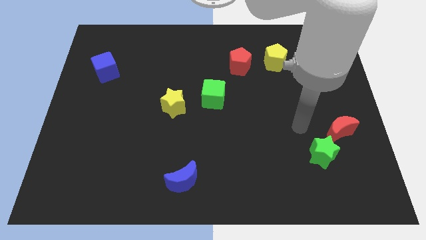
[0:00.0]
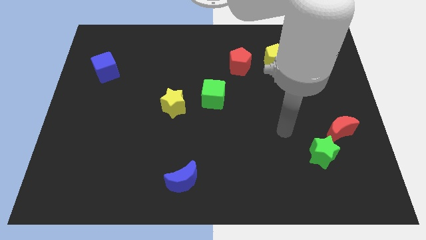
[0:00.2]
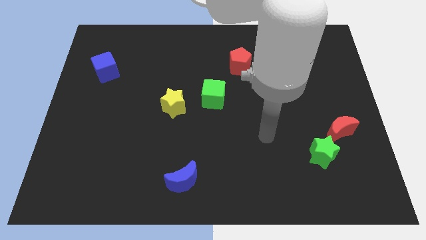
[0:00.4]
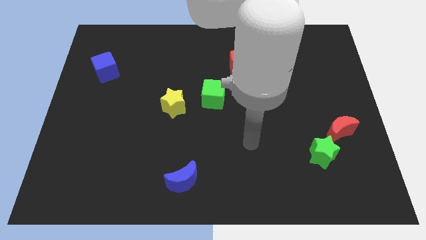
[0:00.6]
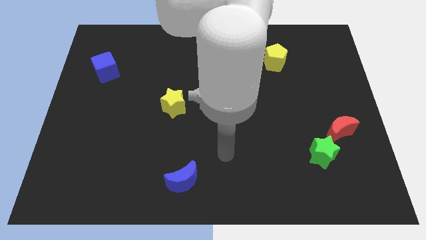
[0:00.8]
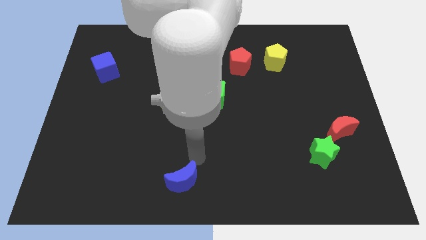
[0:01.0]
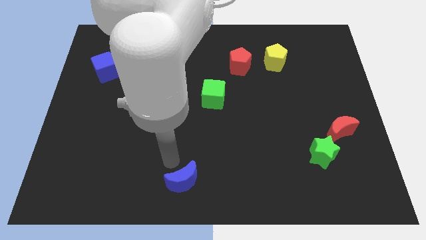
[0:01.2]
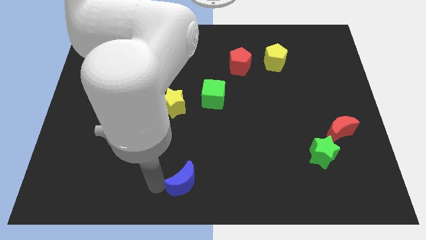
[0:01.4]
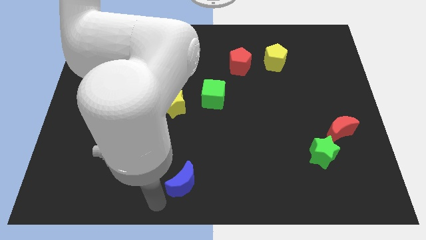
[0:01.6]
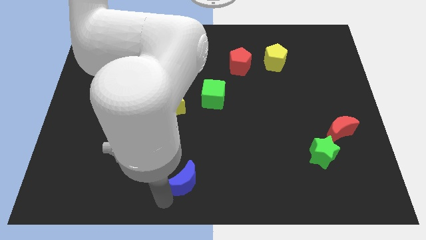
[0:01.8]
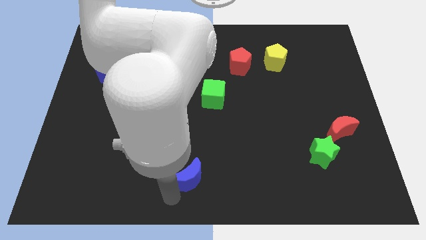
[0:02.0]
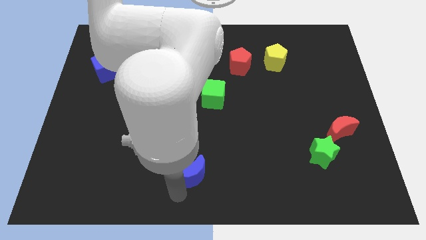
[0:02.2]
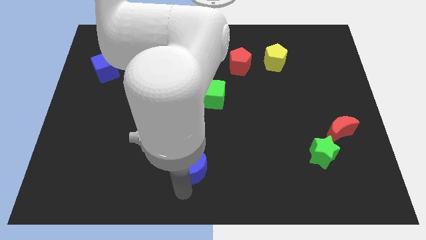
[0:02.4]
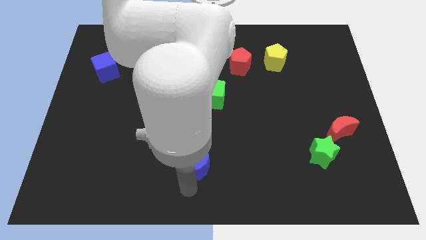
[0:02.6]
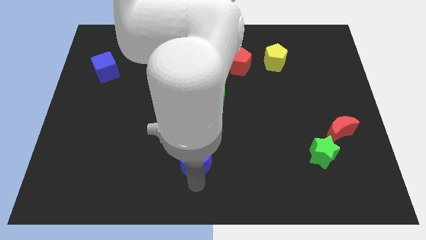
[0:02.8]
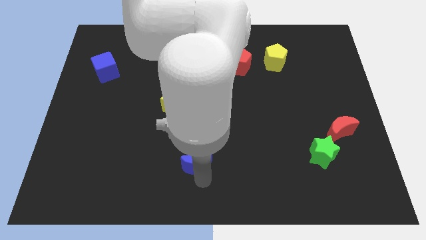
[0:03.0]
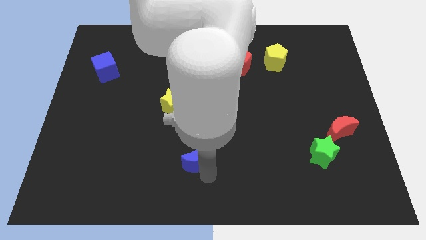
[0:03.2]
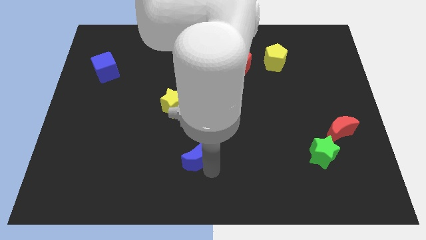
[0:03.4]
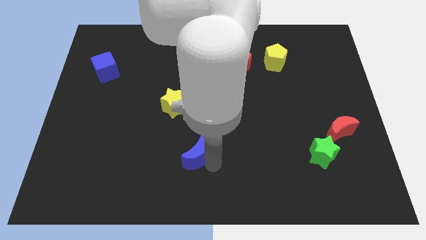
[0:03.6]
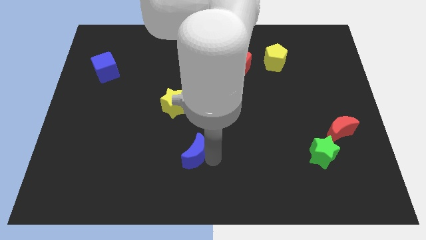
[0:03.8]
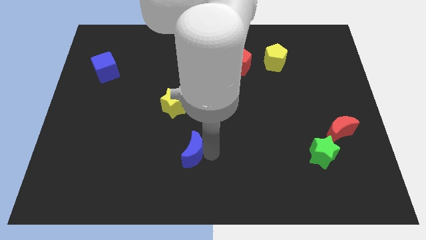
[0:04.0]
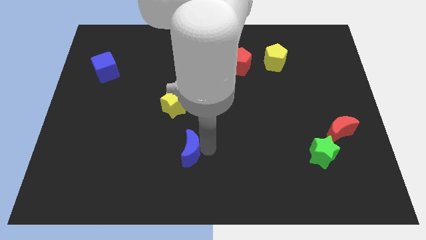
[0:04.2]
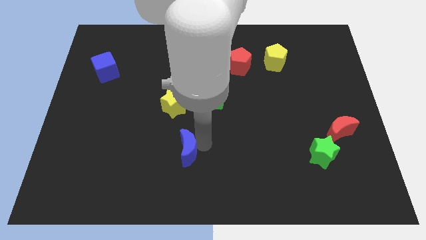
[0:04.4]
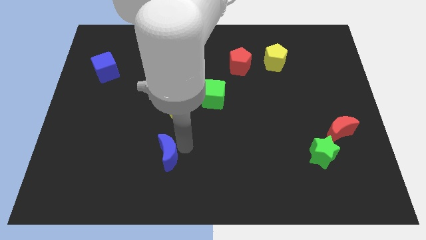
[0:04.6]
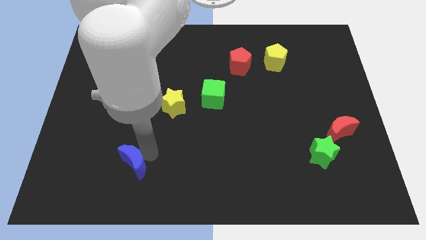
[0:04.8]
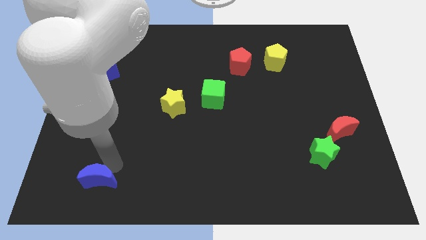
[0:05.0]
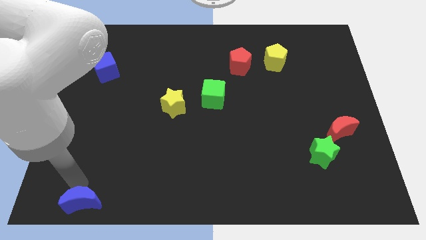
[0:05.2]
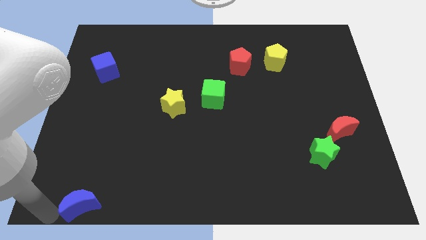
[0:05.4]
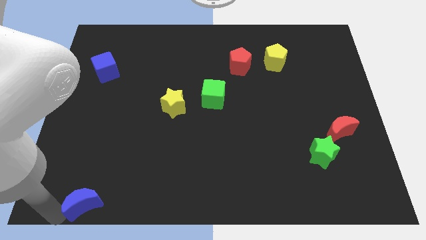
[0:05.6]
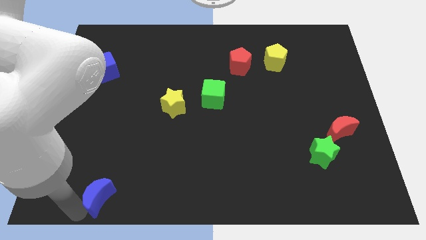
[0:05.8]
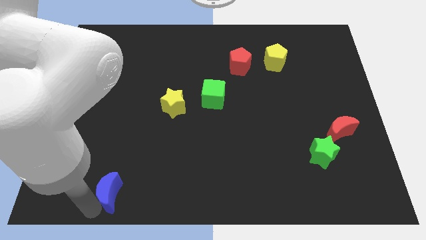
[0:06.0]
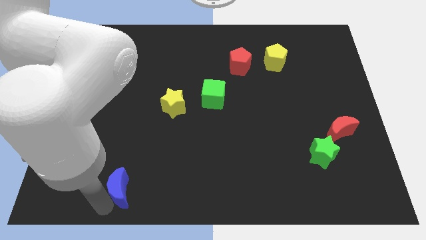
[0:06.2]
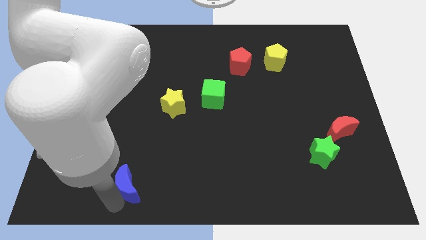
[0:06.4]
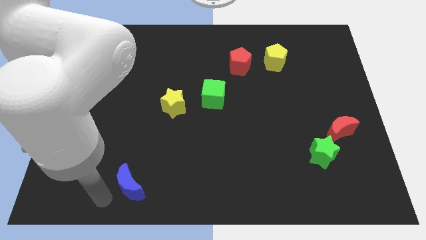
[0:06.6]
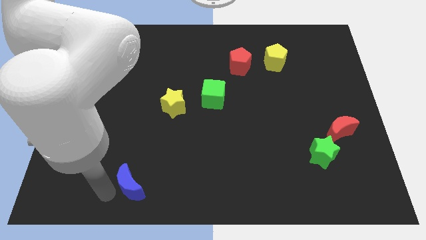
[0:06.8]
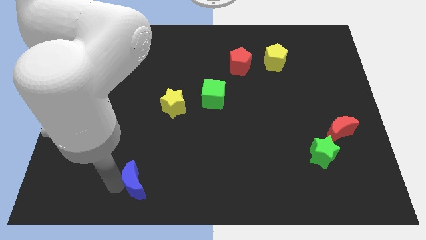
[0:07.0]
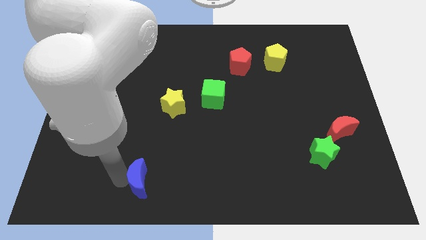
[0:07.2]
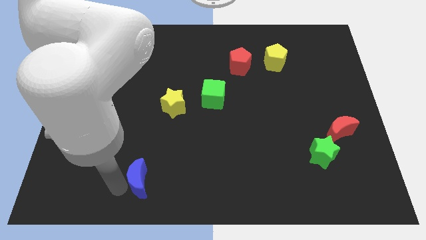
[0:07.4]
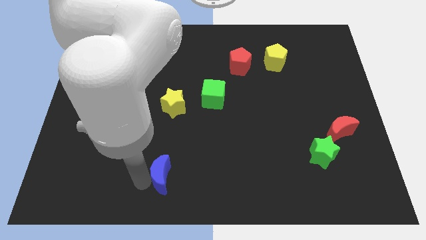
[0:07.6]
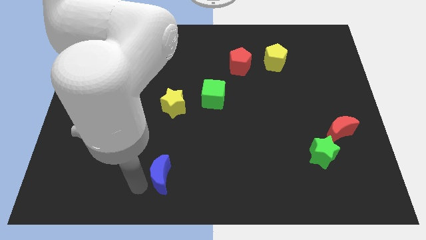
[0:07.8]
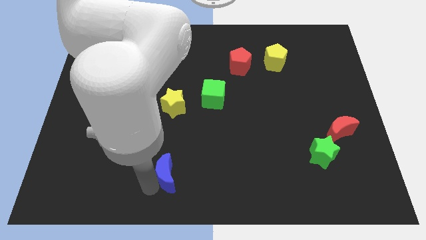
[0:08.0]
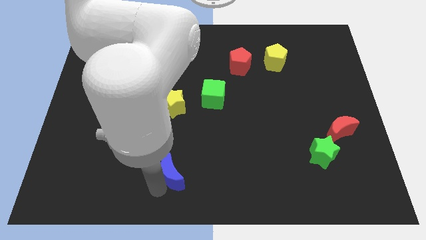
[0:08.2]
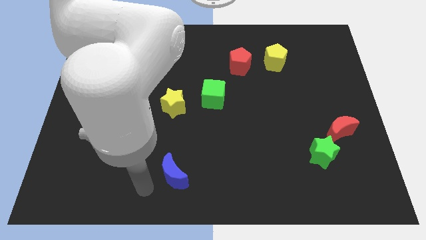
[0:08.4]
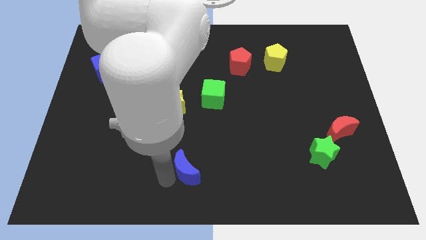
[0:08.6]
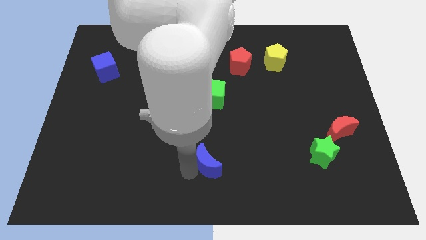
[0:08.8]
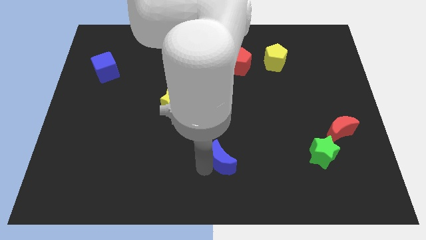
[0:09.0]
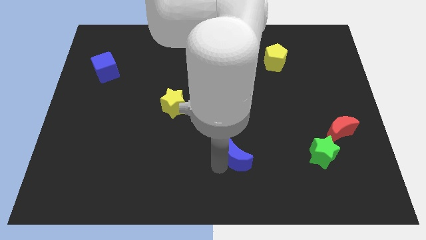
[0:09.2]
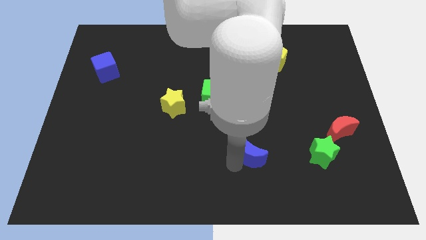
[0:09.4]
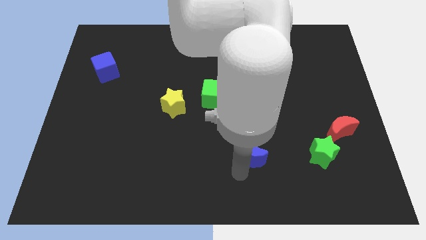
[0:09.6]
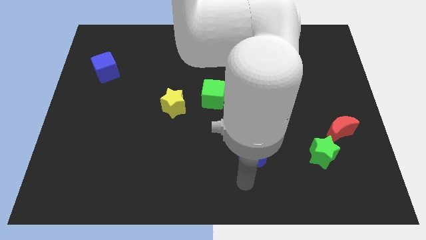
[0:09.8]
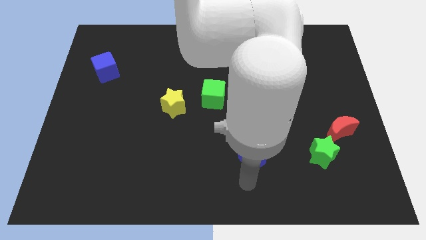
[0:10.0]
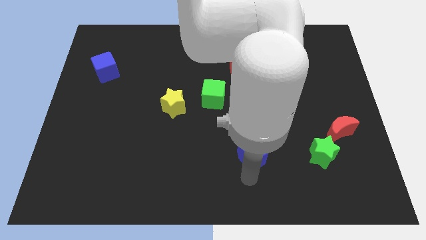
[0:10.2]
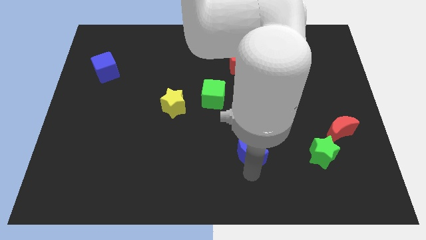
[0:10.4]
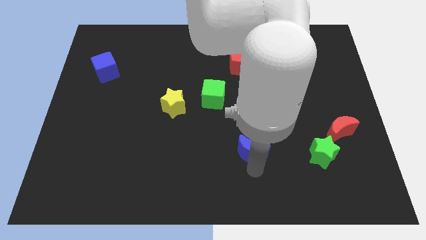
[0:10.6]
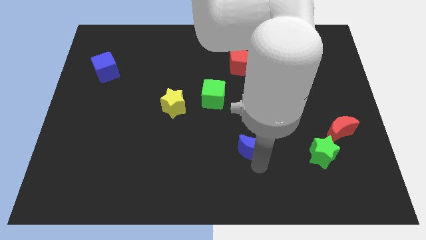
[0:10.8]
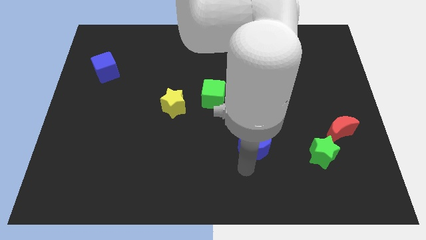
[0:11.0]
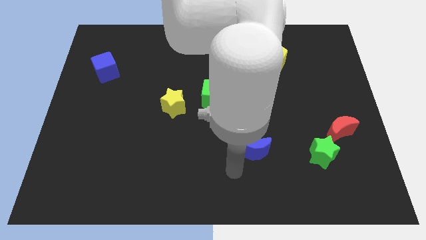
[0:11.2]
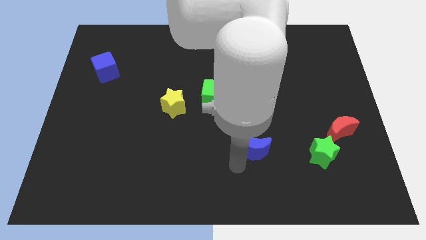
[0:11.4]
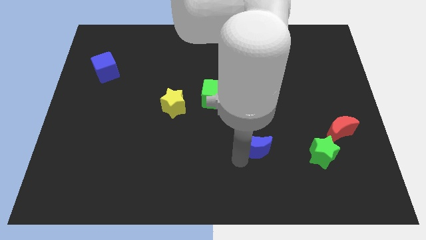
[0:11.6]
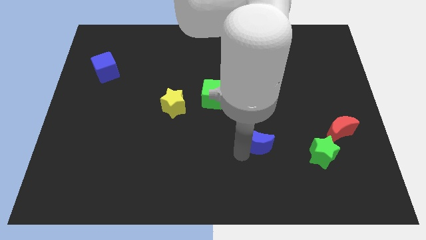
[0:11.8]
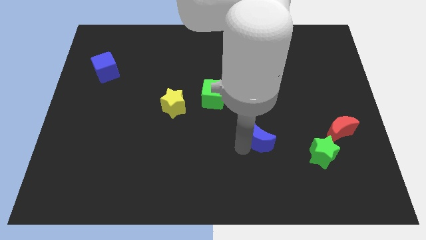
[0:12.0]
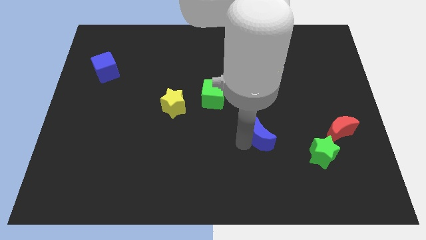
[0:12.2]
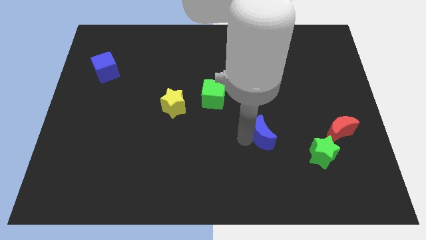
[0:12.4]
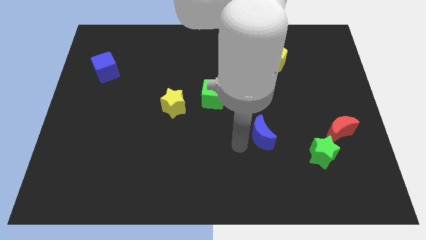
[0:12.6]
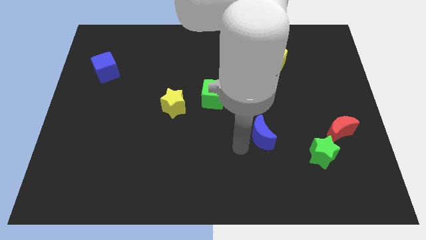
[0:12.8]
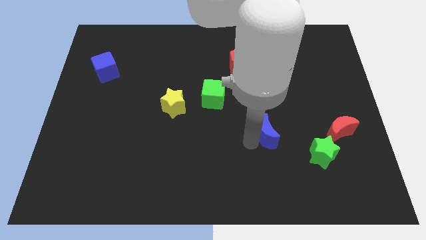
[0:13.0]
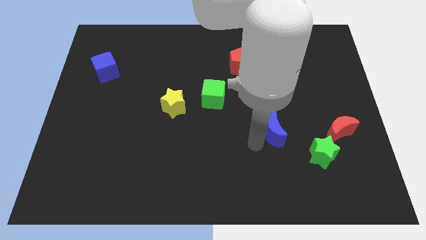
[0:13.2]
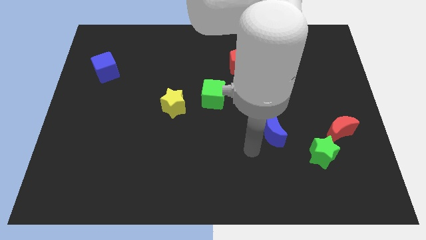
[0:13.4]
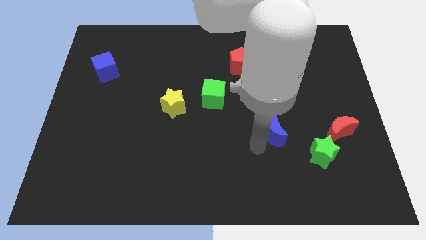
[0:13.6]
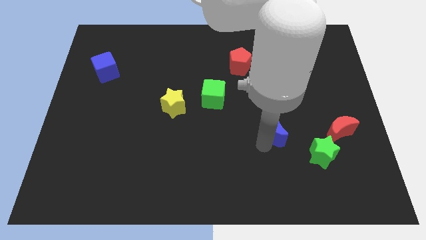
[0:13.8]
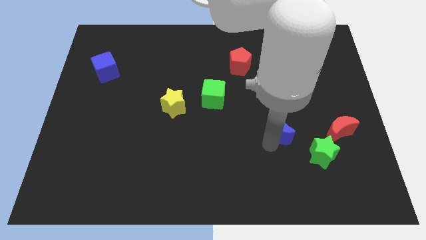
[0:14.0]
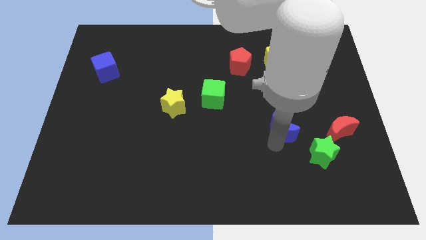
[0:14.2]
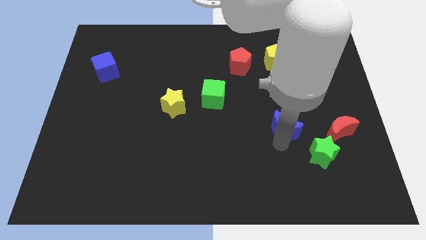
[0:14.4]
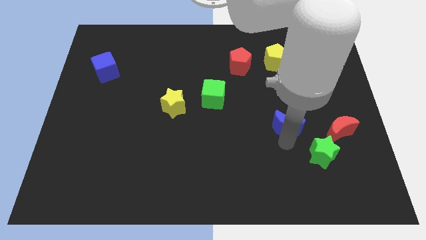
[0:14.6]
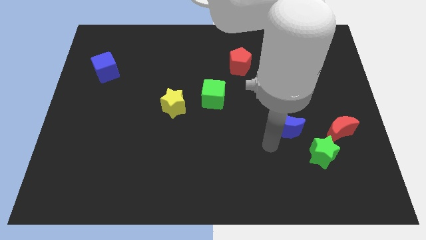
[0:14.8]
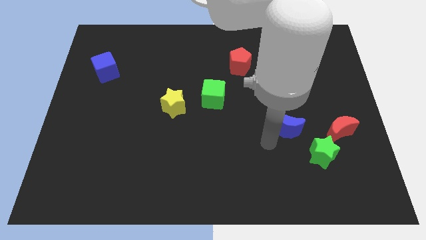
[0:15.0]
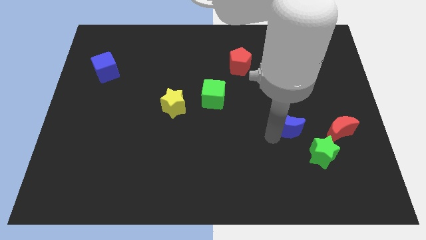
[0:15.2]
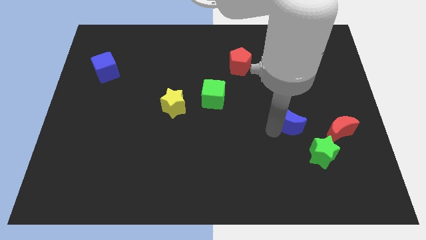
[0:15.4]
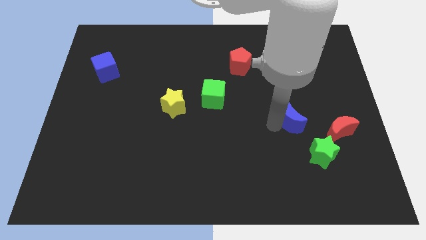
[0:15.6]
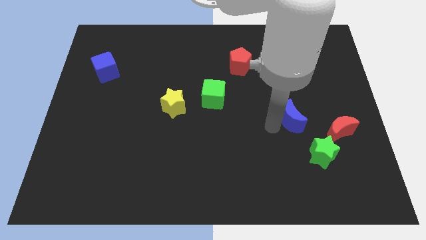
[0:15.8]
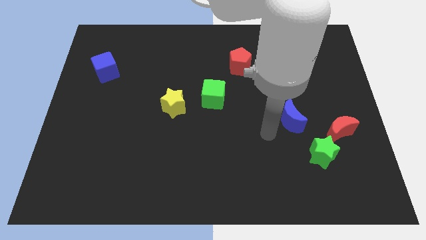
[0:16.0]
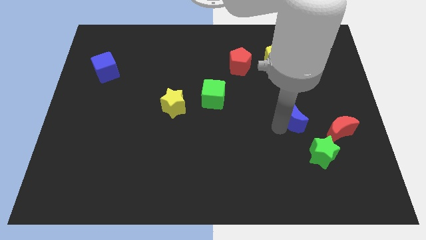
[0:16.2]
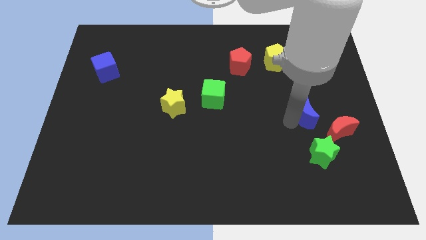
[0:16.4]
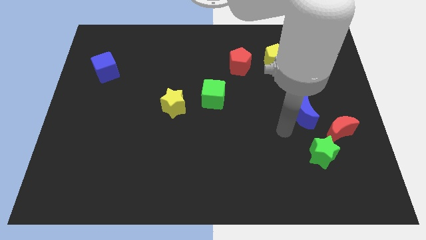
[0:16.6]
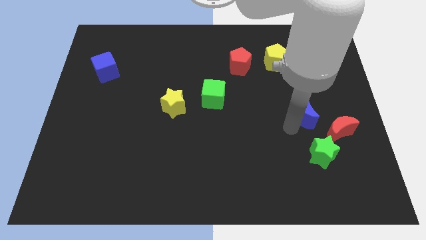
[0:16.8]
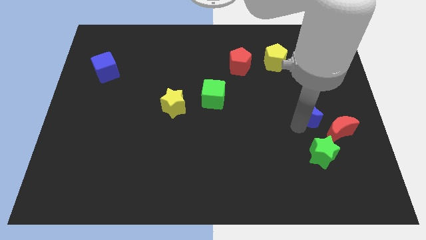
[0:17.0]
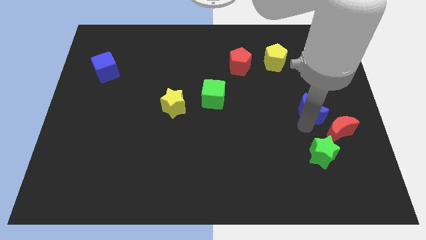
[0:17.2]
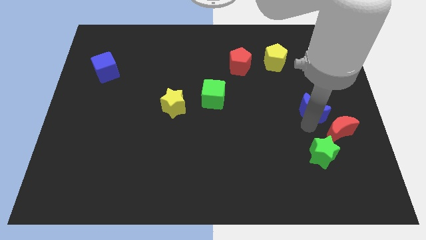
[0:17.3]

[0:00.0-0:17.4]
move the blue moon to the top side of the red moon
